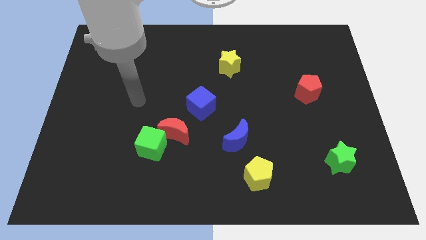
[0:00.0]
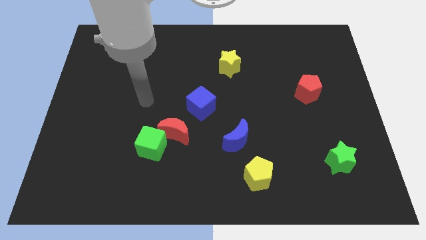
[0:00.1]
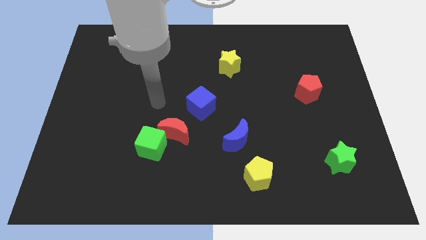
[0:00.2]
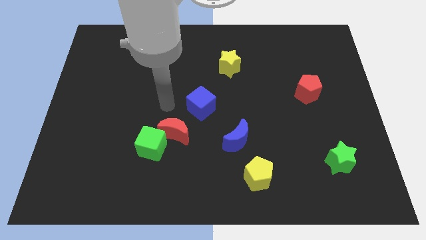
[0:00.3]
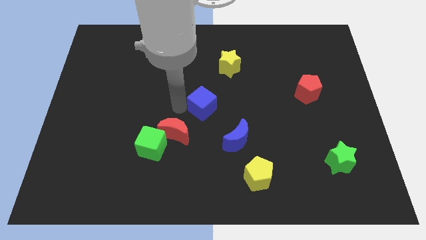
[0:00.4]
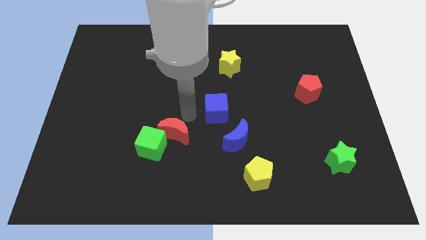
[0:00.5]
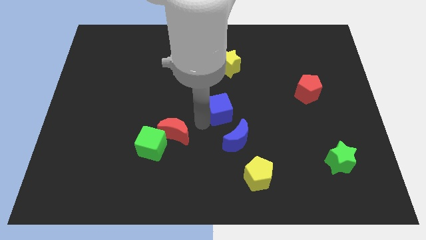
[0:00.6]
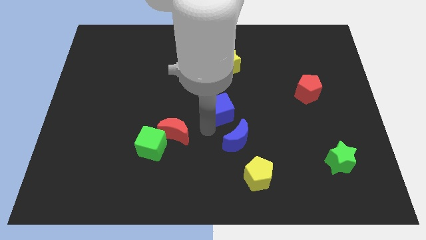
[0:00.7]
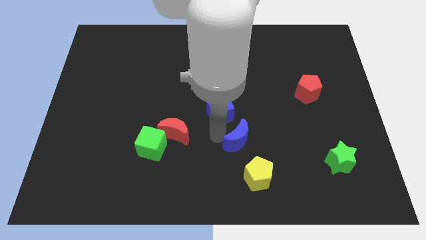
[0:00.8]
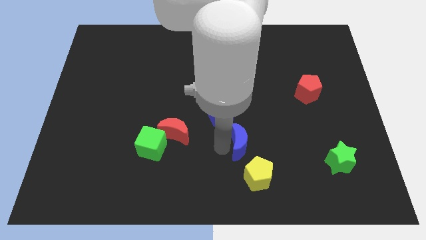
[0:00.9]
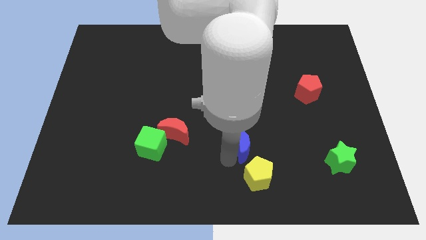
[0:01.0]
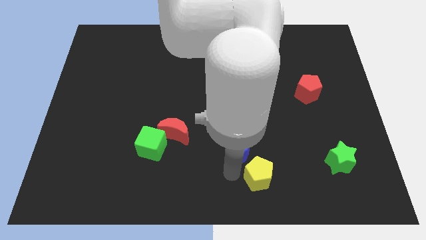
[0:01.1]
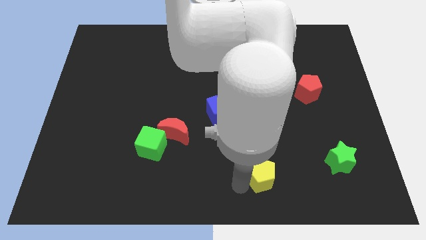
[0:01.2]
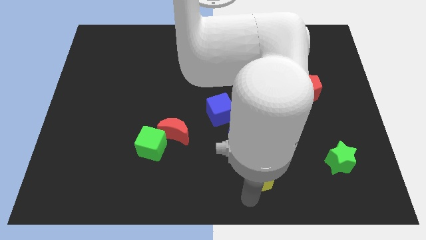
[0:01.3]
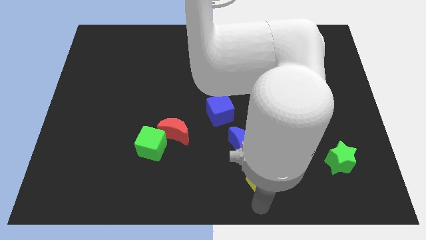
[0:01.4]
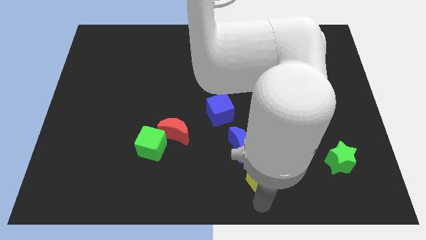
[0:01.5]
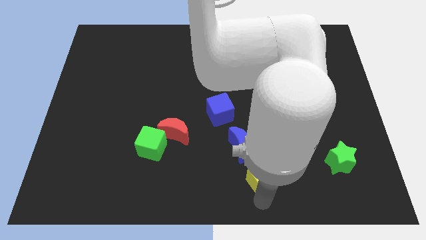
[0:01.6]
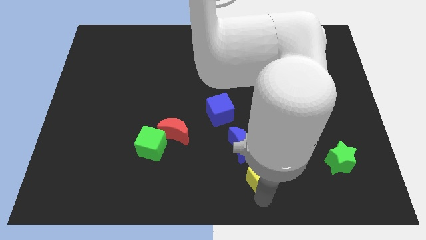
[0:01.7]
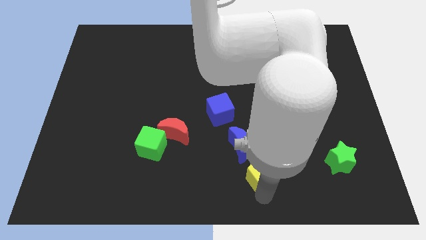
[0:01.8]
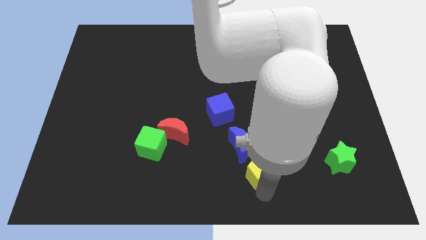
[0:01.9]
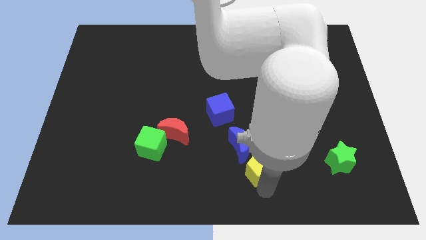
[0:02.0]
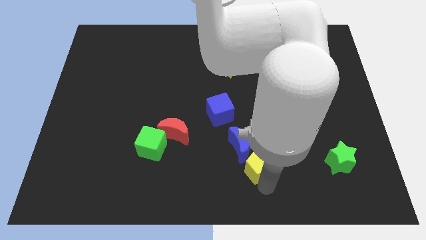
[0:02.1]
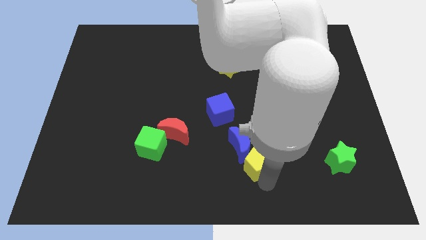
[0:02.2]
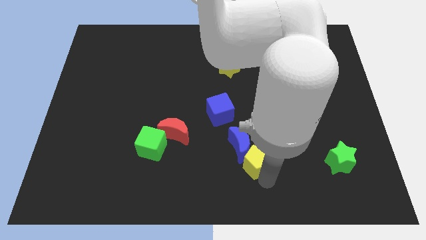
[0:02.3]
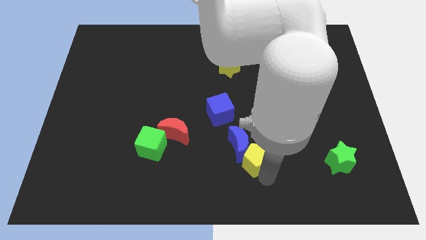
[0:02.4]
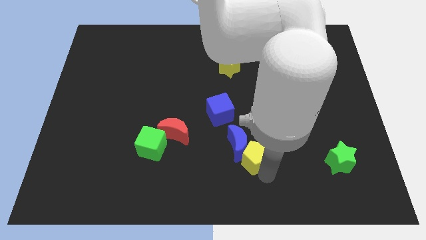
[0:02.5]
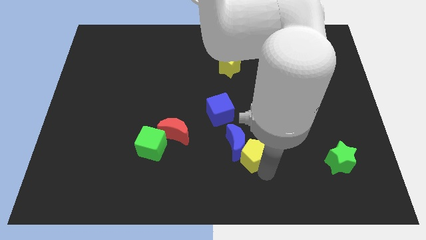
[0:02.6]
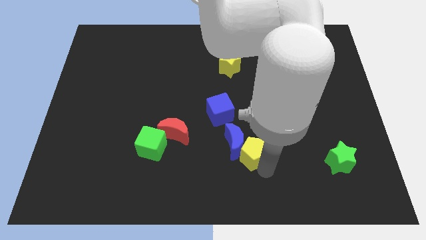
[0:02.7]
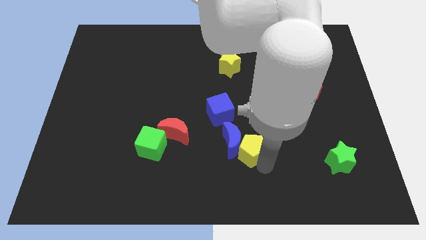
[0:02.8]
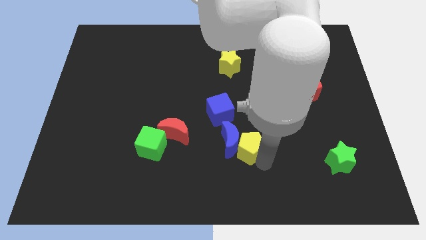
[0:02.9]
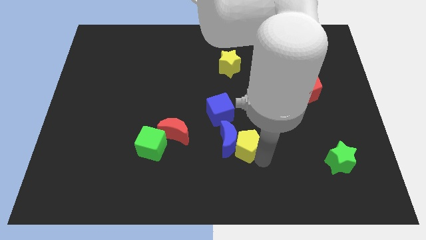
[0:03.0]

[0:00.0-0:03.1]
push the yellow pentagon upwards a bit

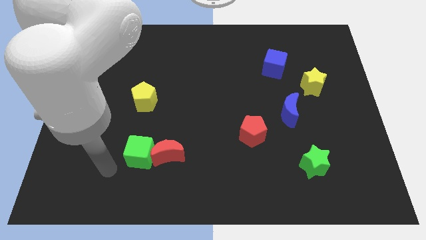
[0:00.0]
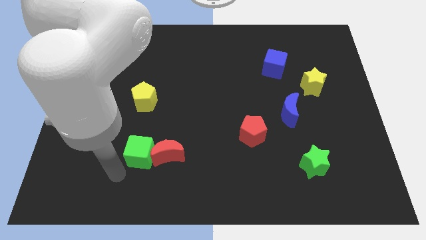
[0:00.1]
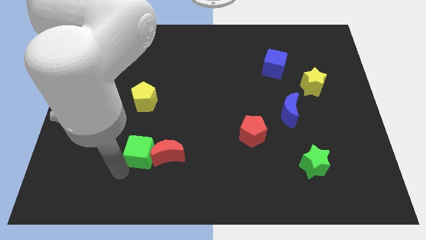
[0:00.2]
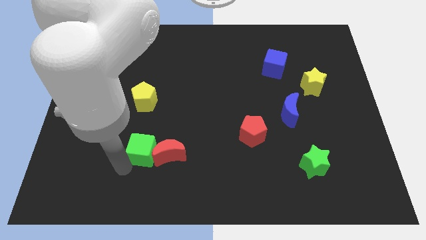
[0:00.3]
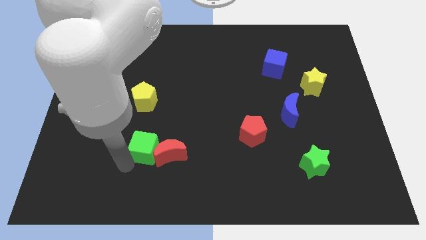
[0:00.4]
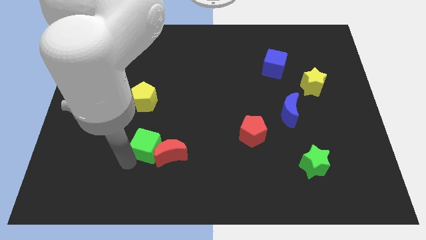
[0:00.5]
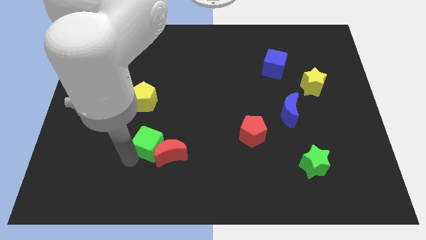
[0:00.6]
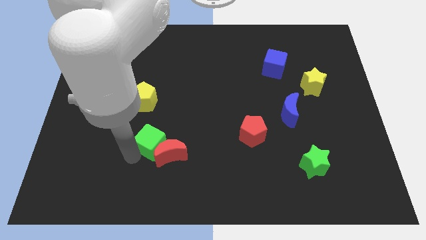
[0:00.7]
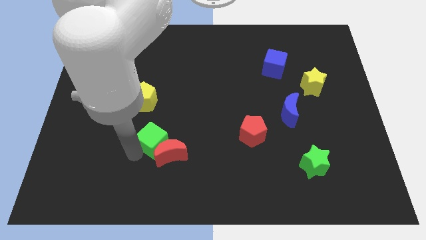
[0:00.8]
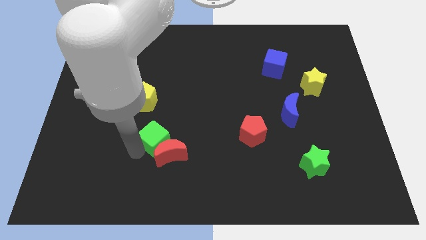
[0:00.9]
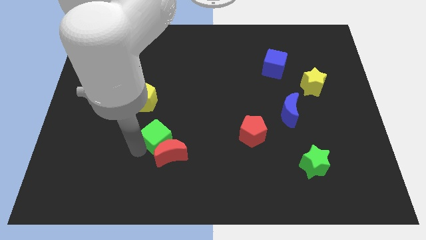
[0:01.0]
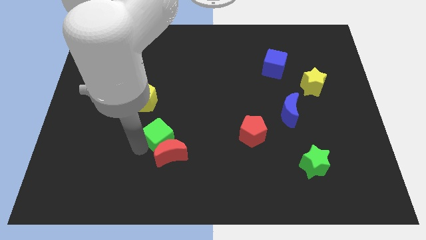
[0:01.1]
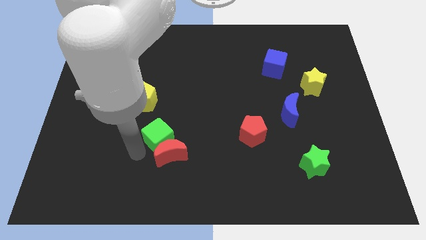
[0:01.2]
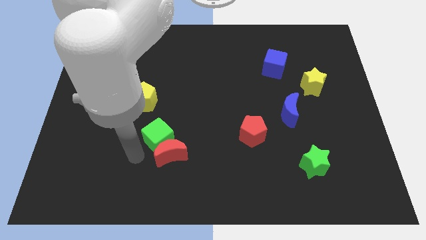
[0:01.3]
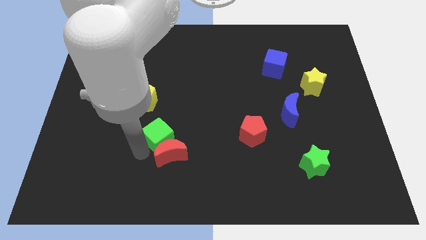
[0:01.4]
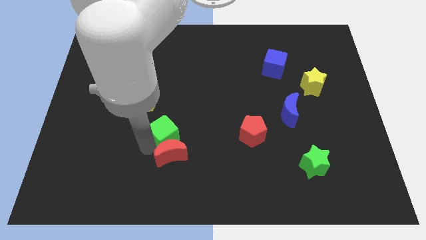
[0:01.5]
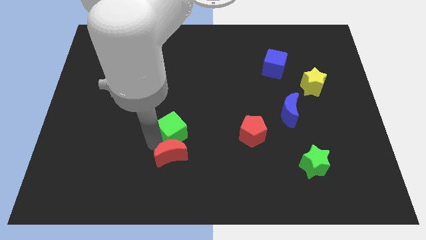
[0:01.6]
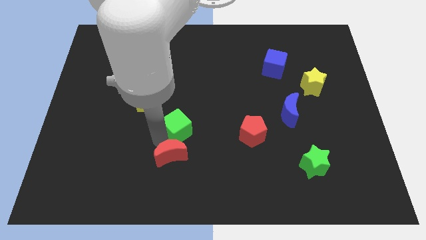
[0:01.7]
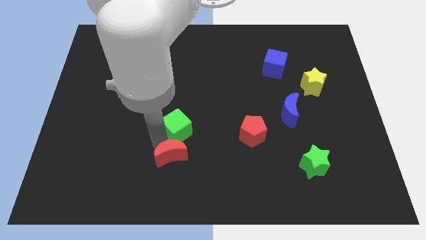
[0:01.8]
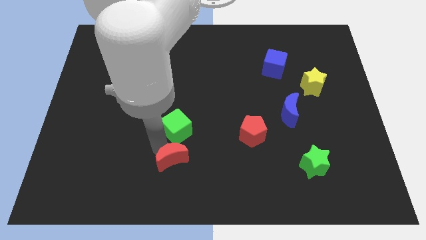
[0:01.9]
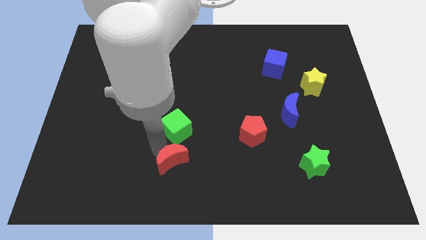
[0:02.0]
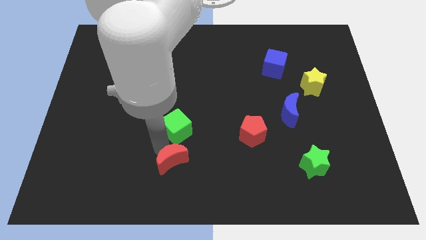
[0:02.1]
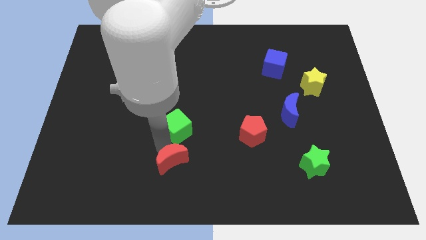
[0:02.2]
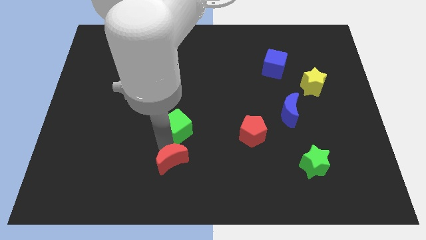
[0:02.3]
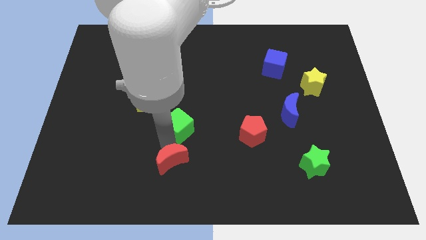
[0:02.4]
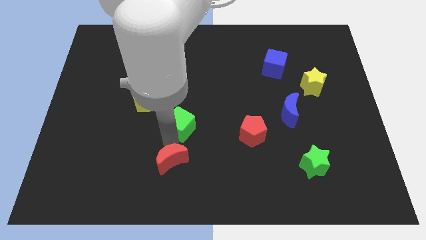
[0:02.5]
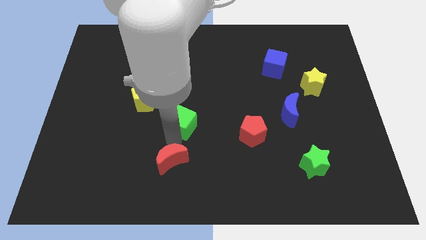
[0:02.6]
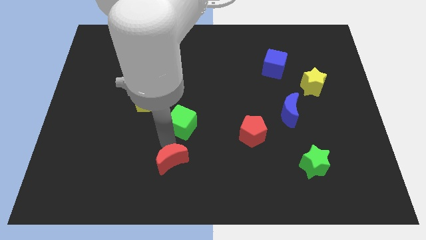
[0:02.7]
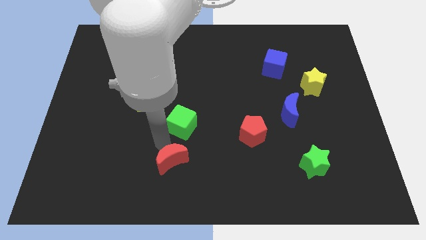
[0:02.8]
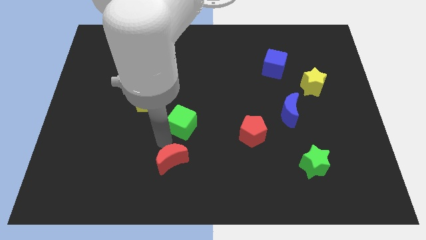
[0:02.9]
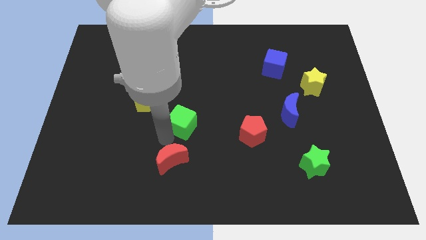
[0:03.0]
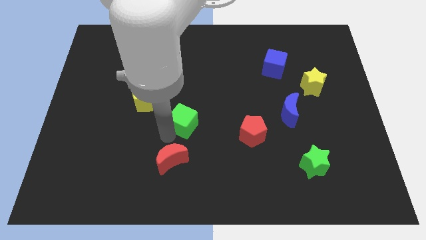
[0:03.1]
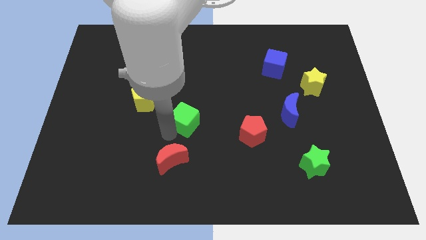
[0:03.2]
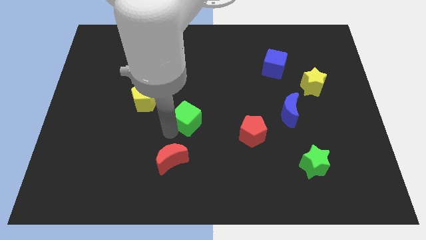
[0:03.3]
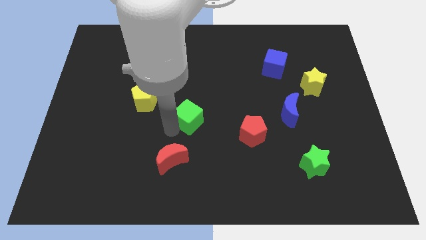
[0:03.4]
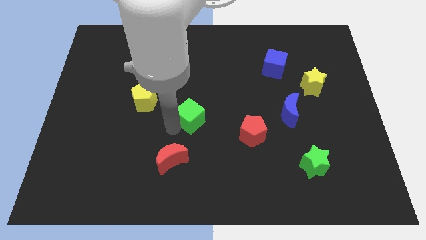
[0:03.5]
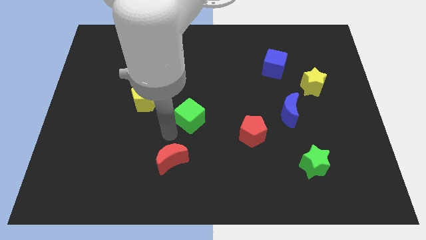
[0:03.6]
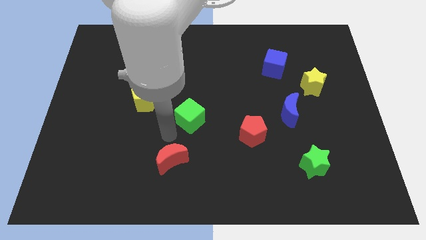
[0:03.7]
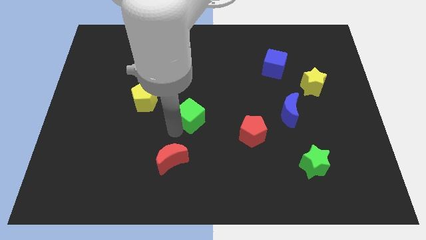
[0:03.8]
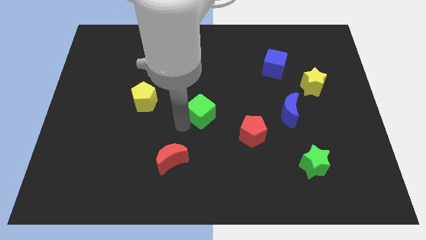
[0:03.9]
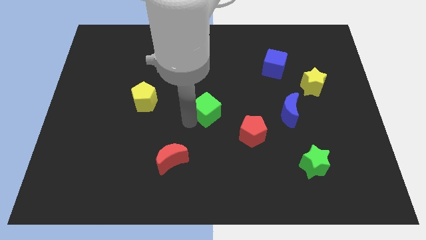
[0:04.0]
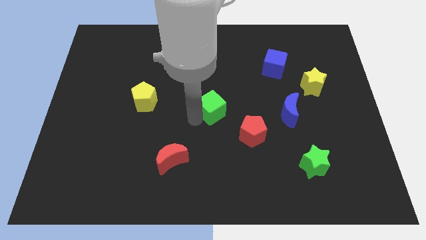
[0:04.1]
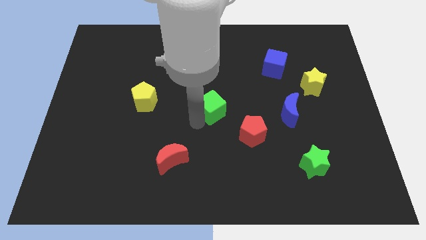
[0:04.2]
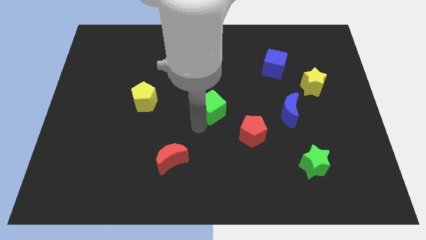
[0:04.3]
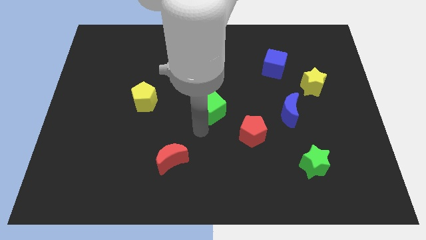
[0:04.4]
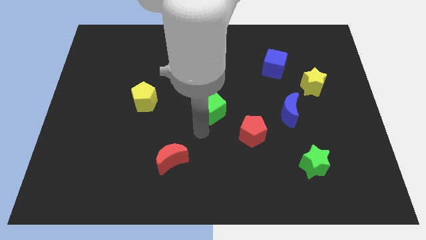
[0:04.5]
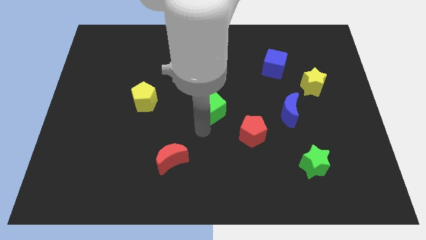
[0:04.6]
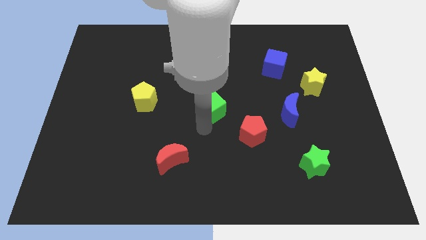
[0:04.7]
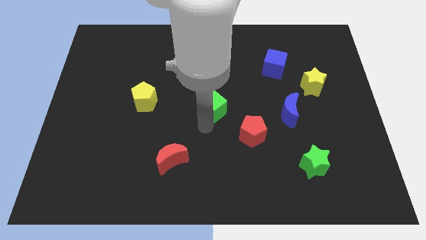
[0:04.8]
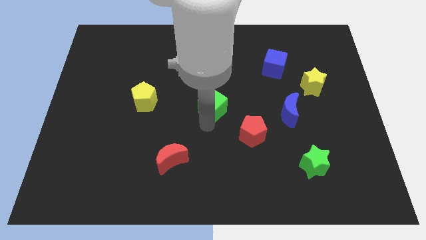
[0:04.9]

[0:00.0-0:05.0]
move the green cube up and then right
